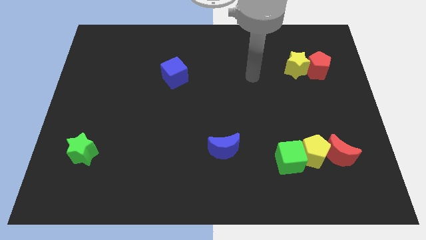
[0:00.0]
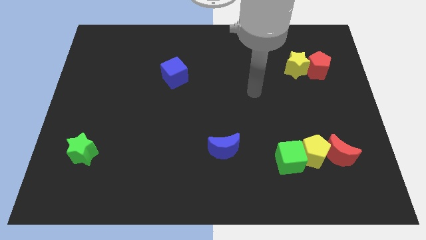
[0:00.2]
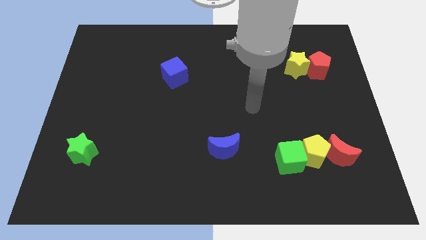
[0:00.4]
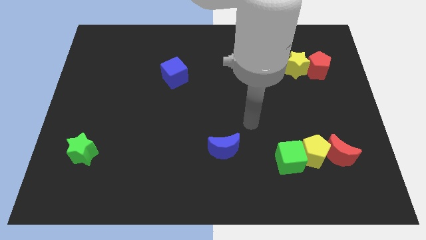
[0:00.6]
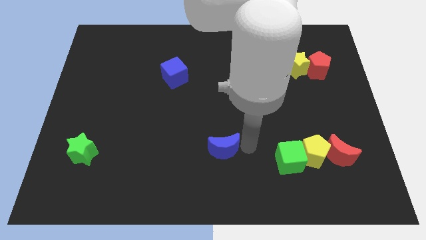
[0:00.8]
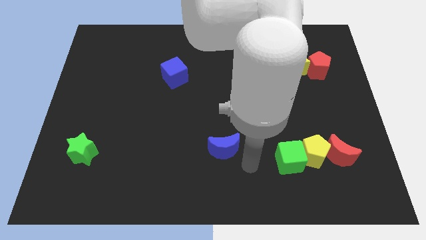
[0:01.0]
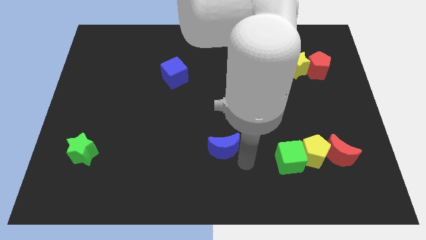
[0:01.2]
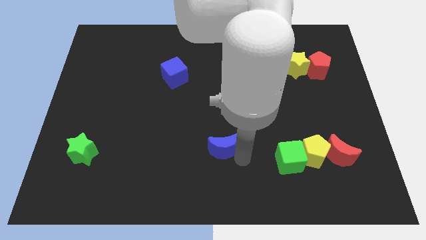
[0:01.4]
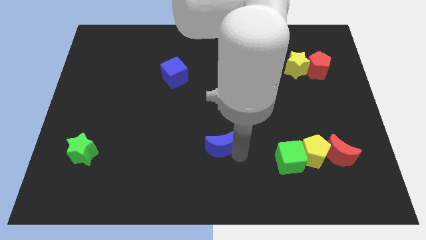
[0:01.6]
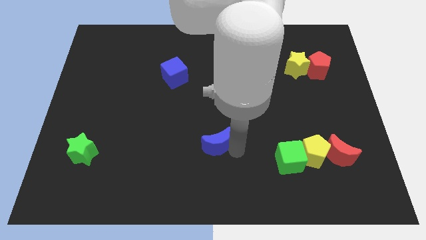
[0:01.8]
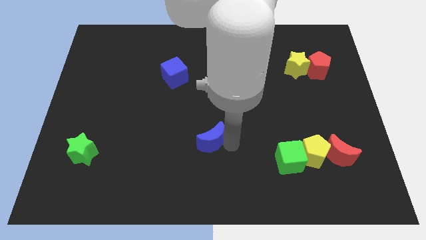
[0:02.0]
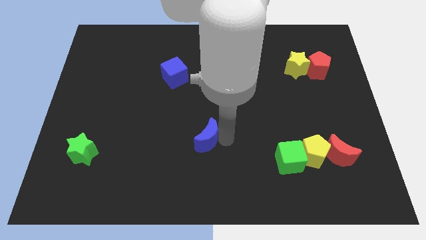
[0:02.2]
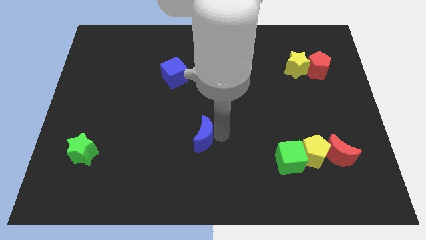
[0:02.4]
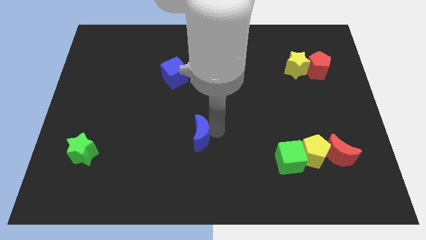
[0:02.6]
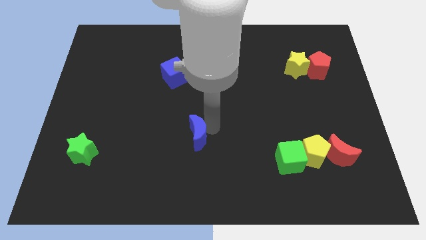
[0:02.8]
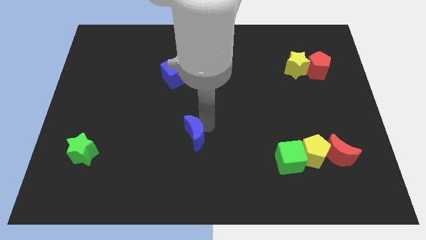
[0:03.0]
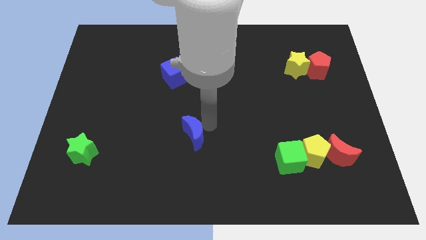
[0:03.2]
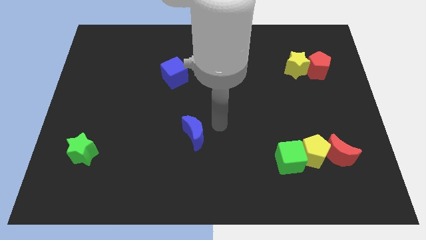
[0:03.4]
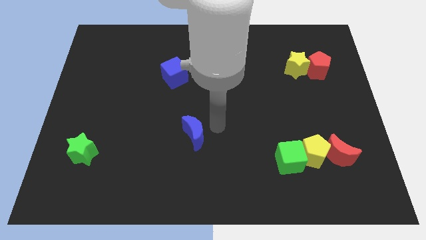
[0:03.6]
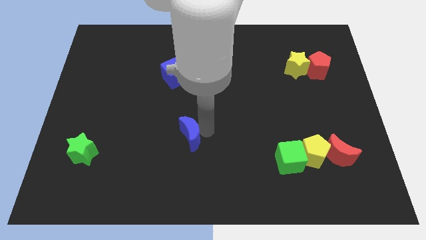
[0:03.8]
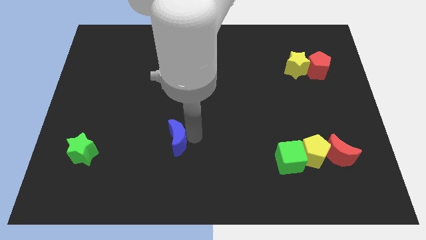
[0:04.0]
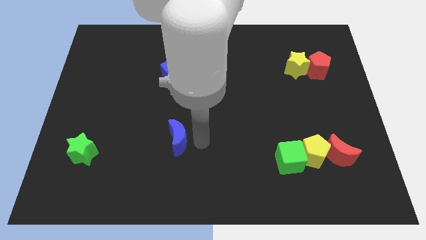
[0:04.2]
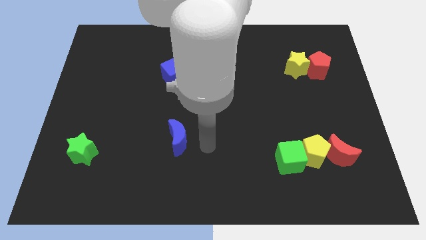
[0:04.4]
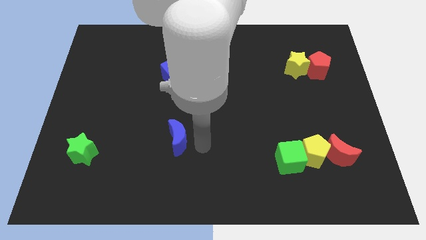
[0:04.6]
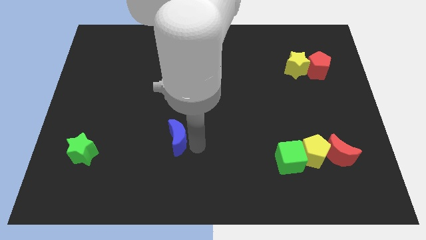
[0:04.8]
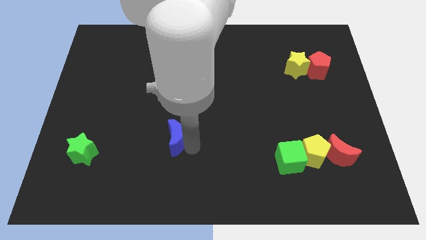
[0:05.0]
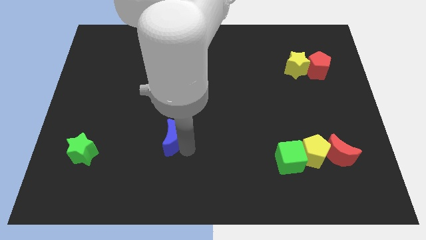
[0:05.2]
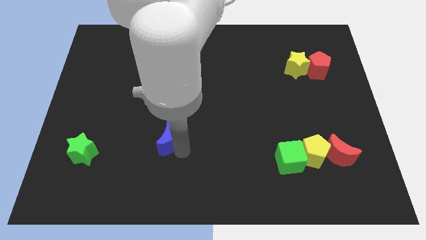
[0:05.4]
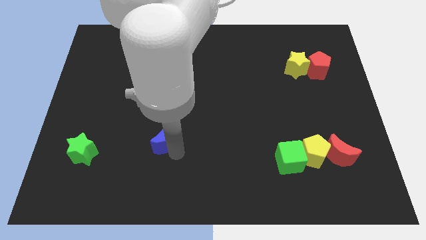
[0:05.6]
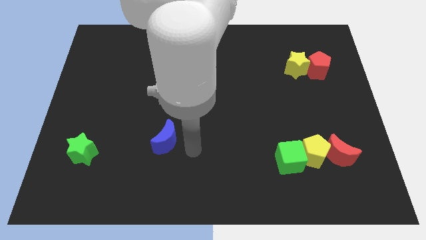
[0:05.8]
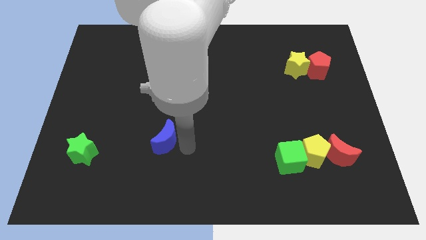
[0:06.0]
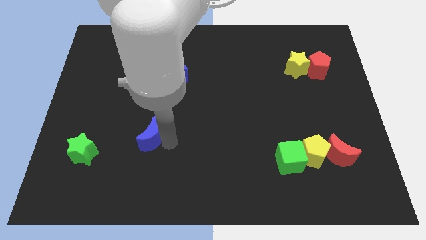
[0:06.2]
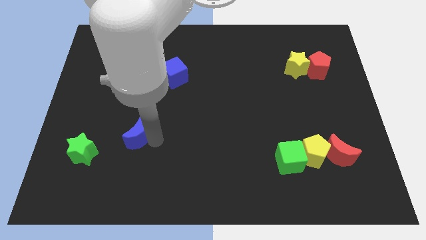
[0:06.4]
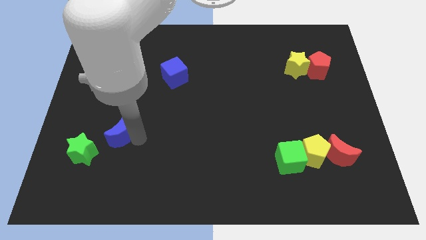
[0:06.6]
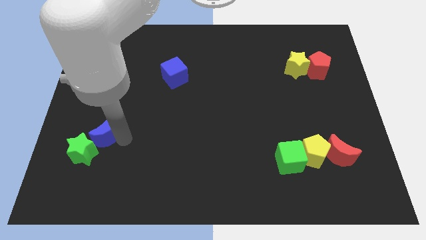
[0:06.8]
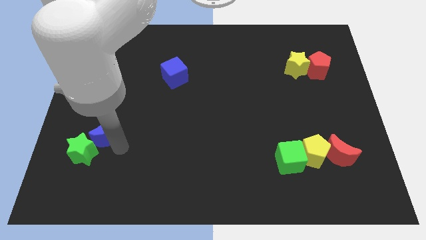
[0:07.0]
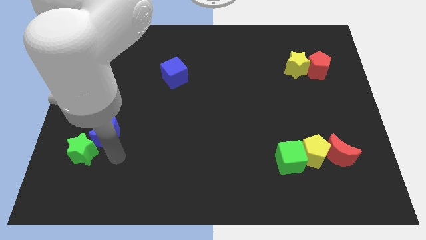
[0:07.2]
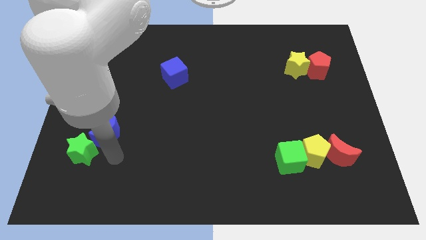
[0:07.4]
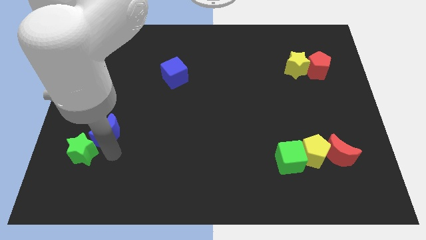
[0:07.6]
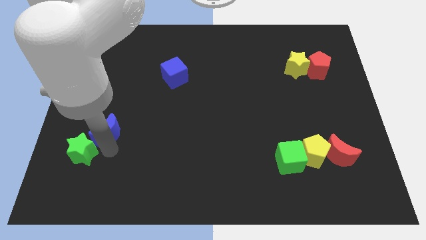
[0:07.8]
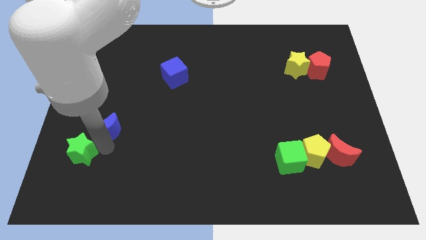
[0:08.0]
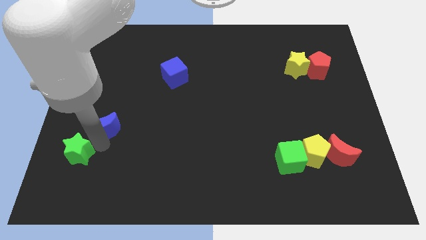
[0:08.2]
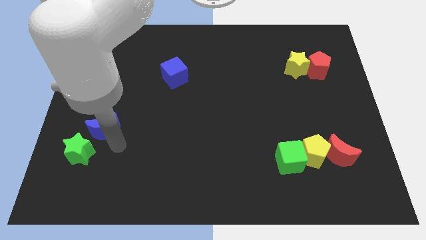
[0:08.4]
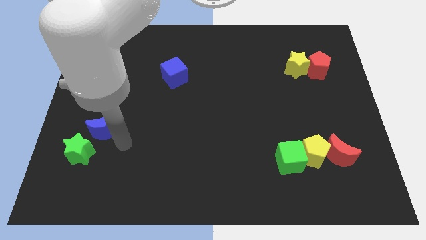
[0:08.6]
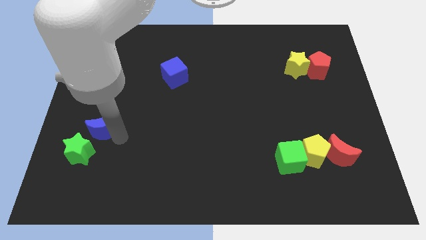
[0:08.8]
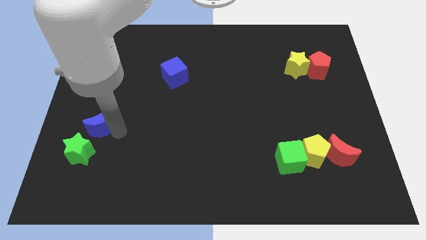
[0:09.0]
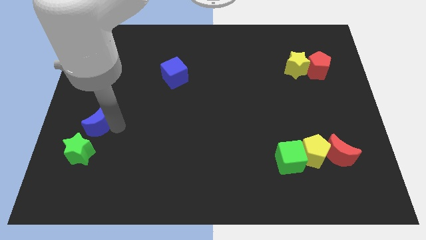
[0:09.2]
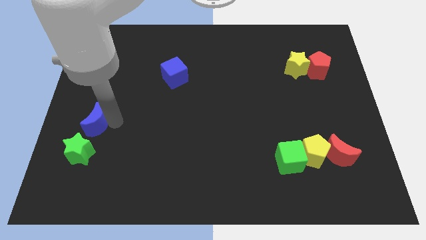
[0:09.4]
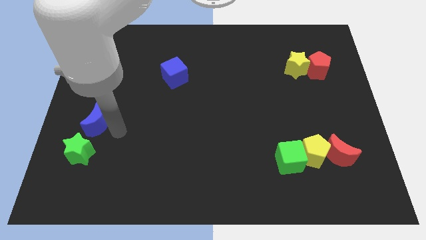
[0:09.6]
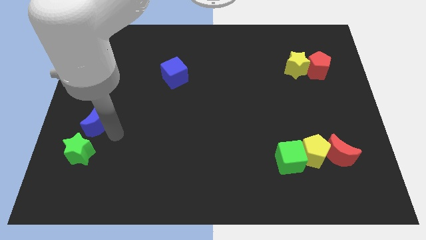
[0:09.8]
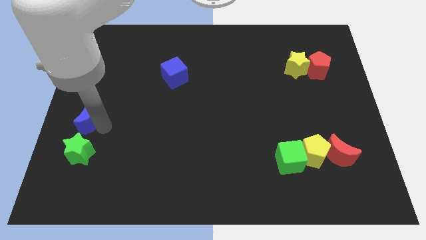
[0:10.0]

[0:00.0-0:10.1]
move the blue moon to the left side of the board

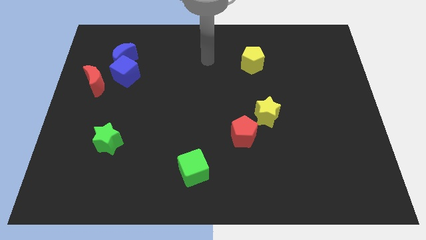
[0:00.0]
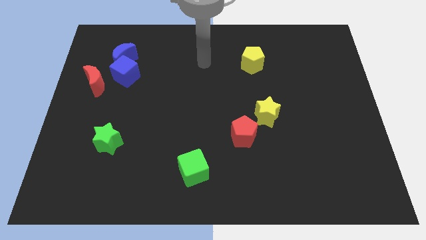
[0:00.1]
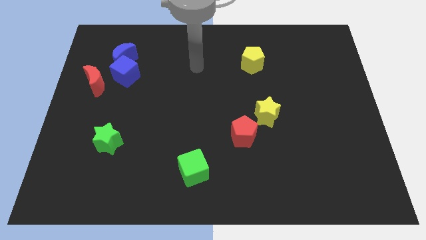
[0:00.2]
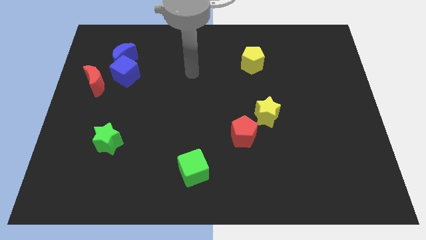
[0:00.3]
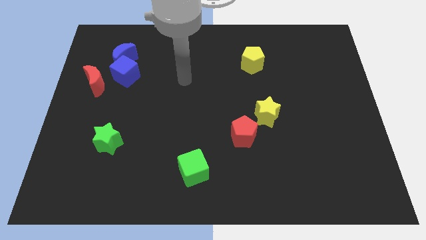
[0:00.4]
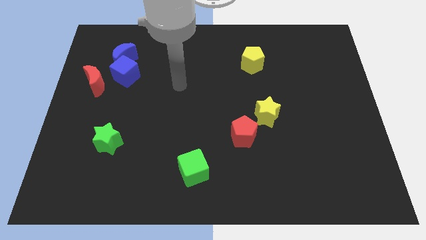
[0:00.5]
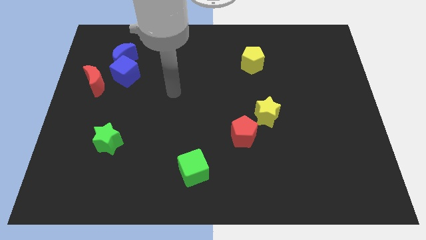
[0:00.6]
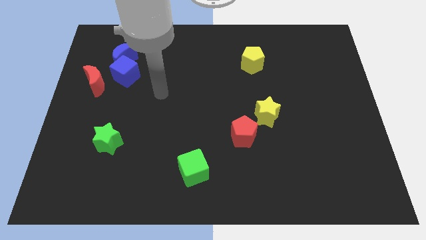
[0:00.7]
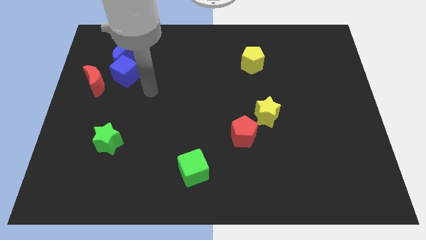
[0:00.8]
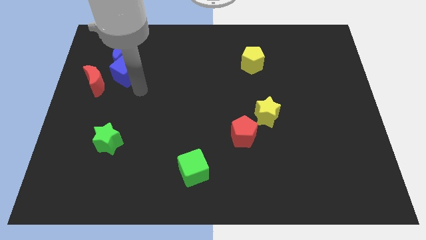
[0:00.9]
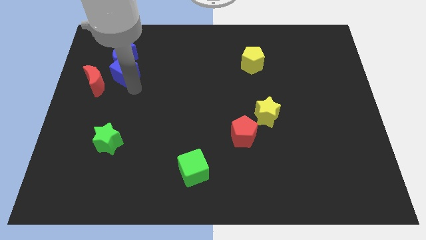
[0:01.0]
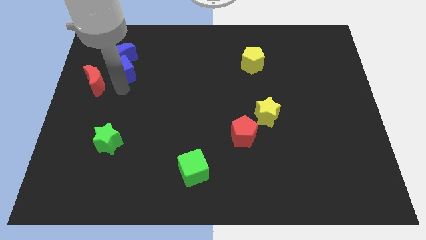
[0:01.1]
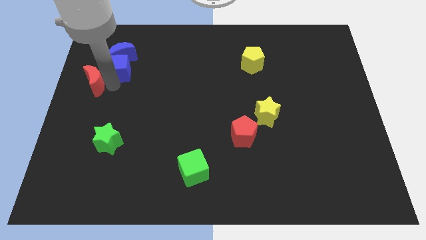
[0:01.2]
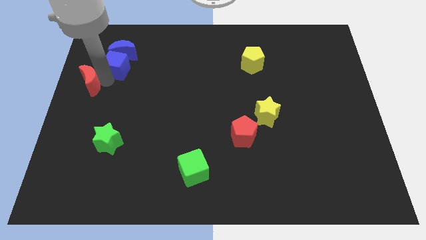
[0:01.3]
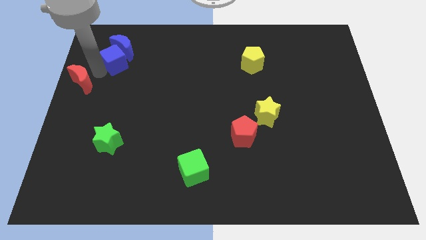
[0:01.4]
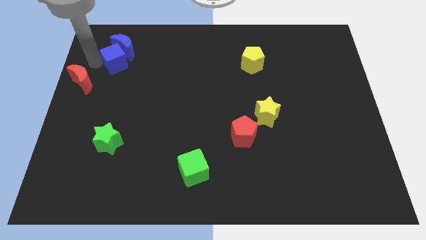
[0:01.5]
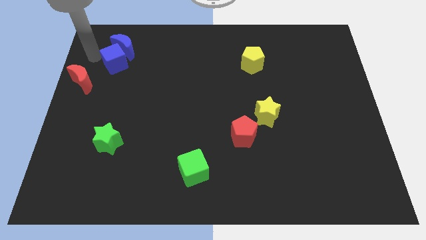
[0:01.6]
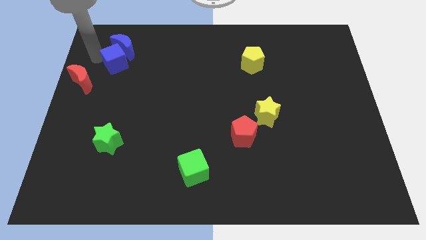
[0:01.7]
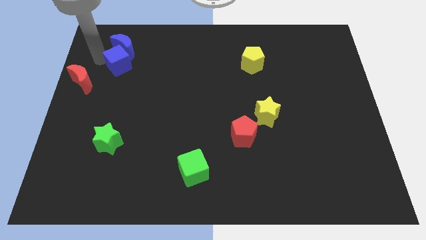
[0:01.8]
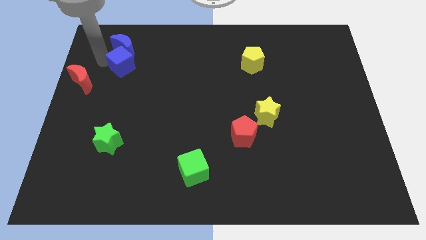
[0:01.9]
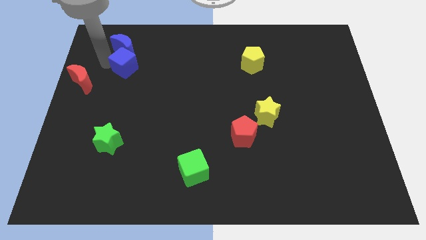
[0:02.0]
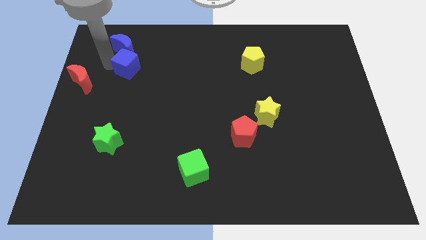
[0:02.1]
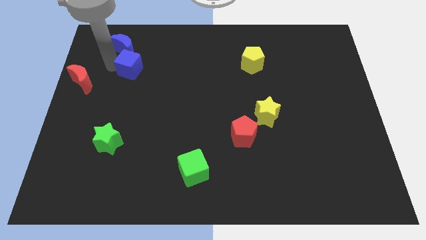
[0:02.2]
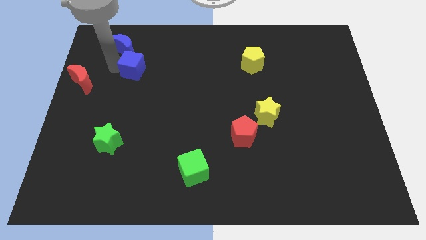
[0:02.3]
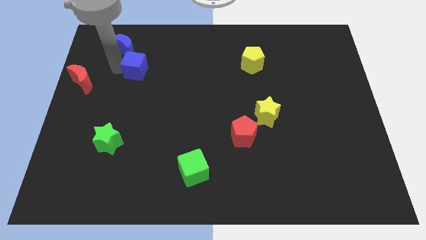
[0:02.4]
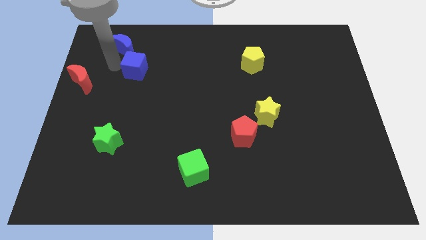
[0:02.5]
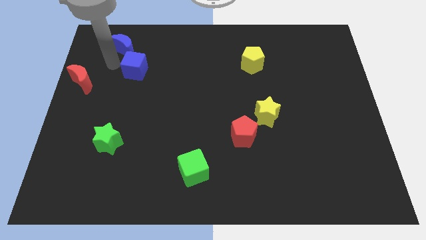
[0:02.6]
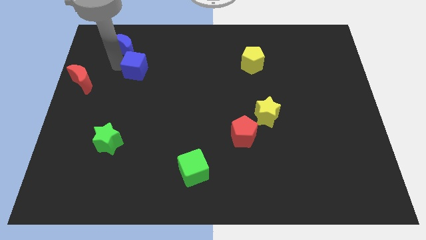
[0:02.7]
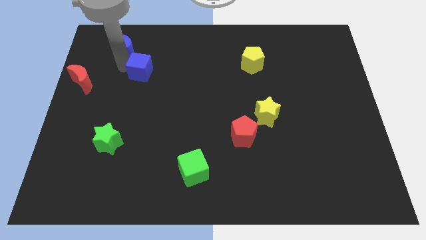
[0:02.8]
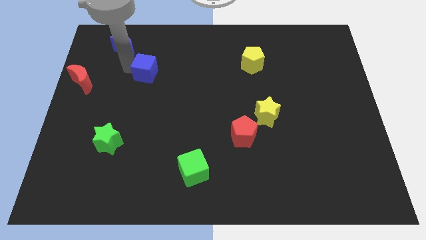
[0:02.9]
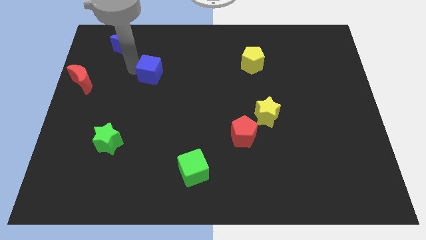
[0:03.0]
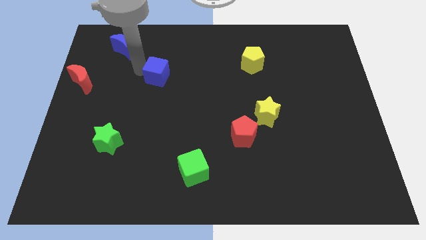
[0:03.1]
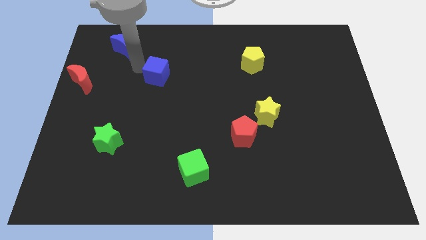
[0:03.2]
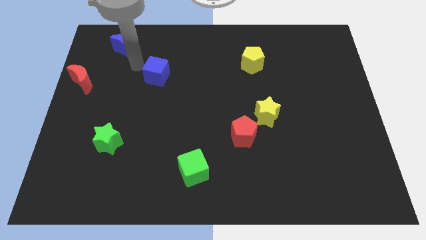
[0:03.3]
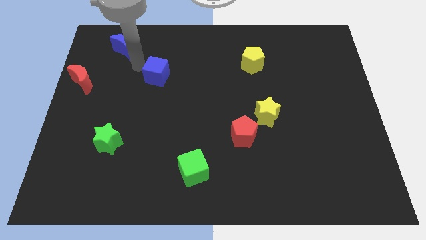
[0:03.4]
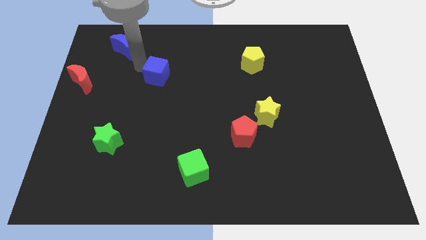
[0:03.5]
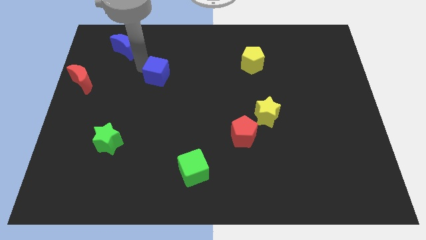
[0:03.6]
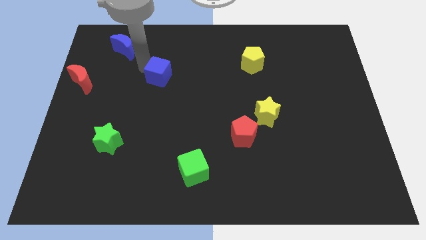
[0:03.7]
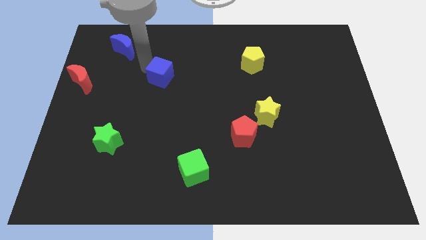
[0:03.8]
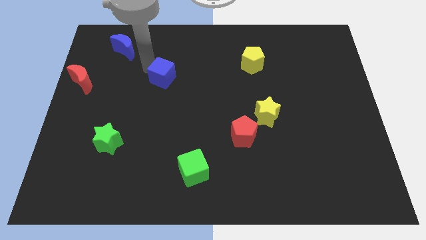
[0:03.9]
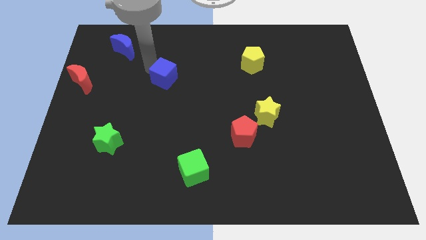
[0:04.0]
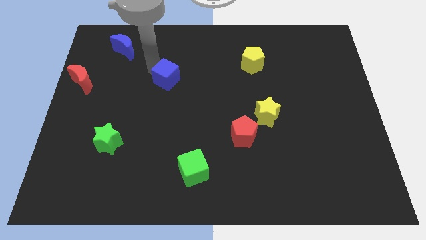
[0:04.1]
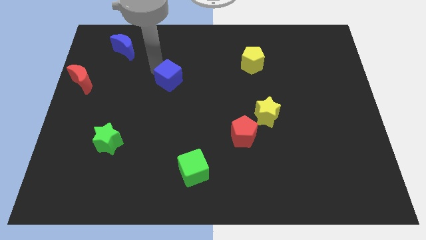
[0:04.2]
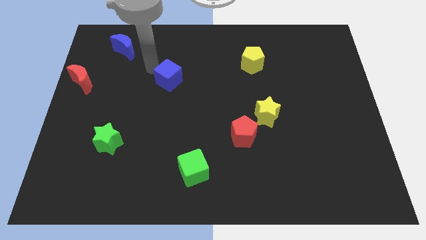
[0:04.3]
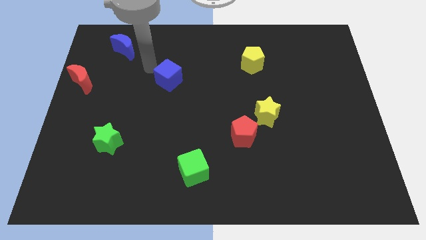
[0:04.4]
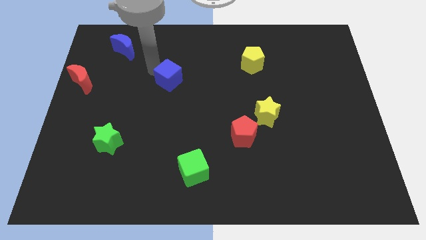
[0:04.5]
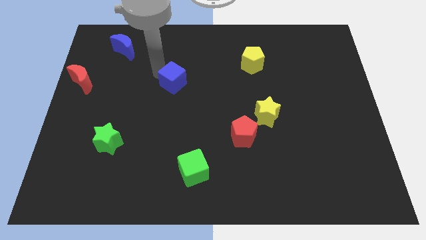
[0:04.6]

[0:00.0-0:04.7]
slide the blue cube to the center
